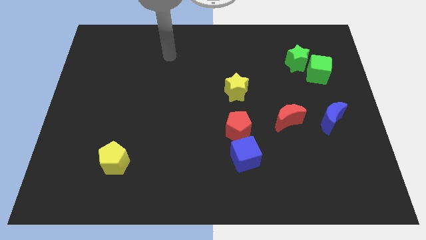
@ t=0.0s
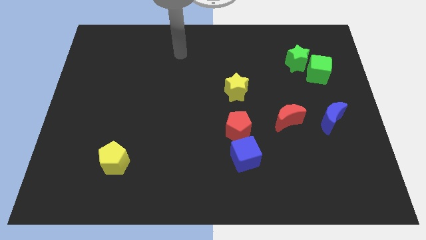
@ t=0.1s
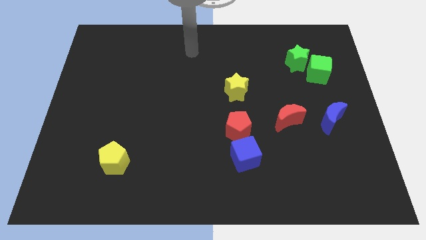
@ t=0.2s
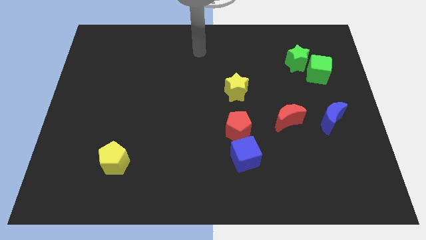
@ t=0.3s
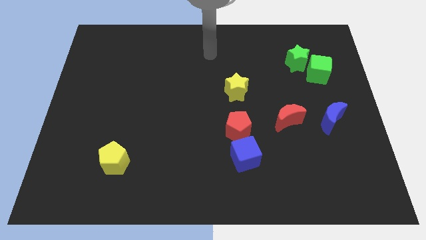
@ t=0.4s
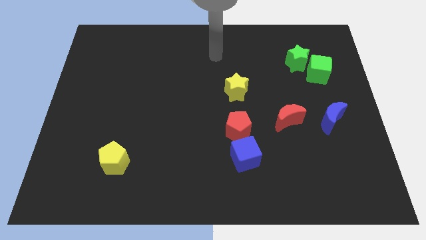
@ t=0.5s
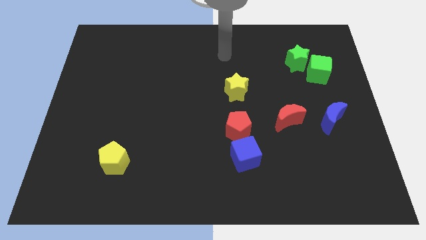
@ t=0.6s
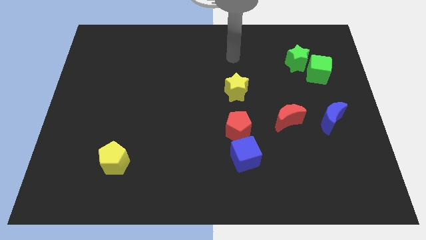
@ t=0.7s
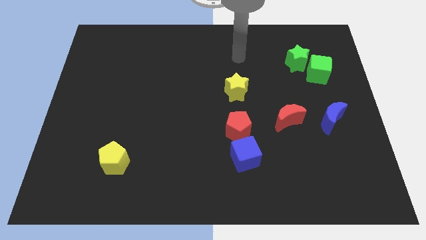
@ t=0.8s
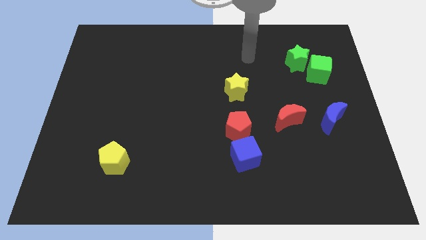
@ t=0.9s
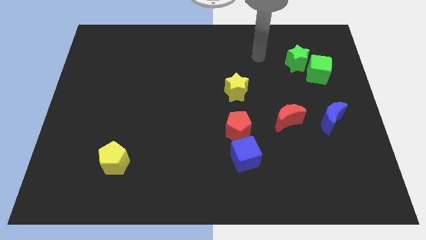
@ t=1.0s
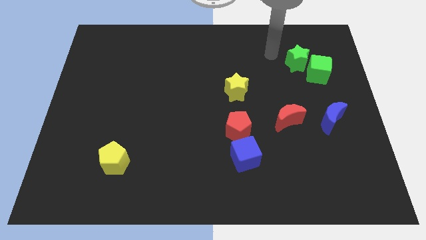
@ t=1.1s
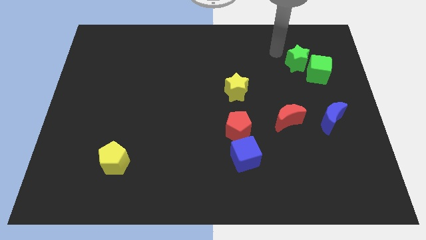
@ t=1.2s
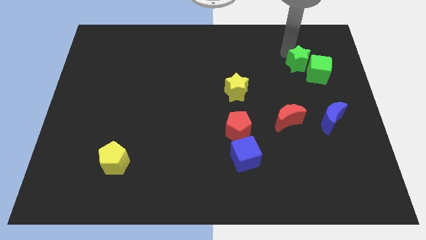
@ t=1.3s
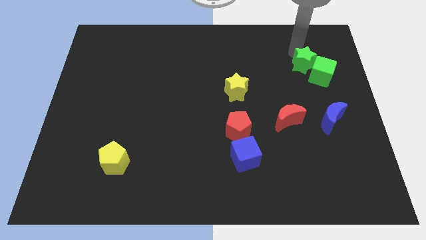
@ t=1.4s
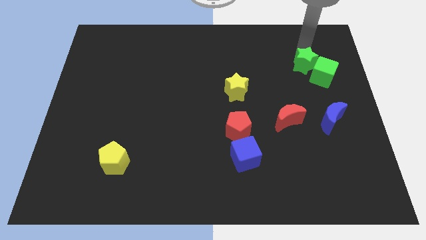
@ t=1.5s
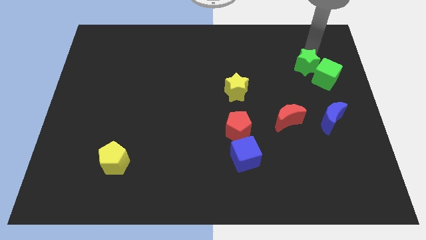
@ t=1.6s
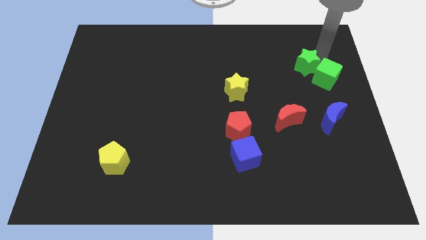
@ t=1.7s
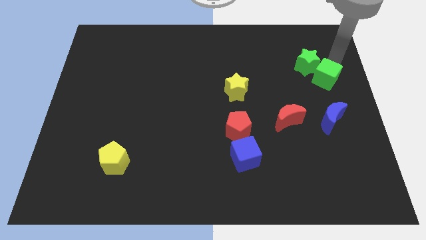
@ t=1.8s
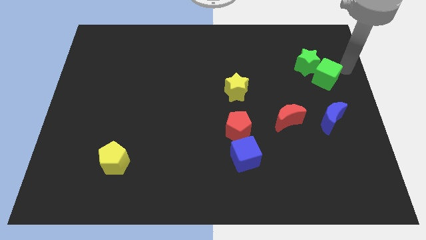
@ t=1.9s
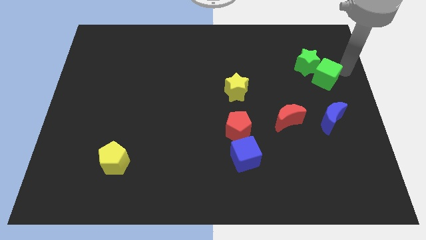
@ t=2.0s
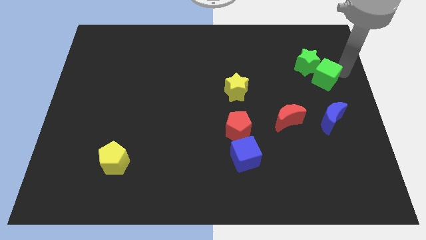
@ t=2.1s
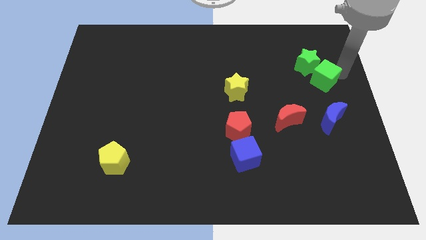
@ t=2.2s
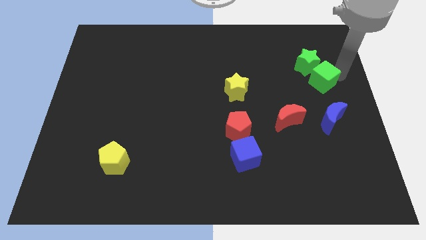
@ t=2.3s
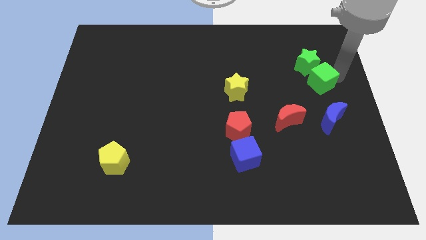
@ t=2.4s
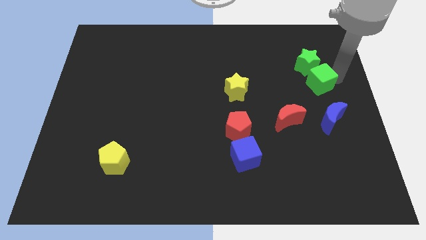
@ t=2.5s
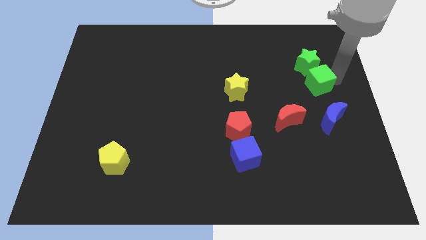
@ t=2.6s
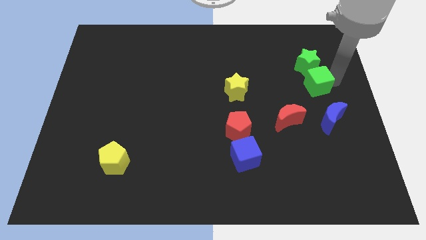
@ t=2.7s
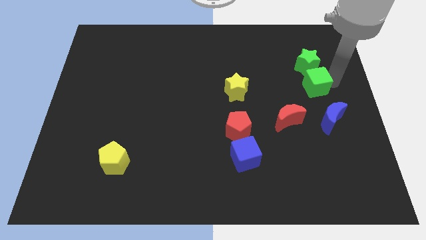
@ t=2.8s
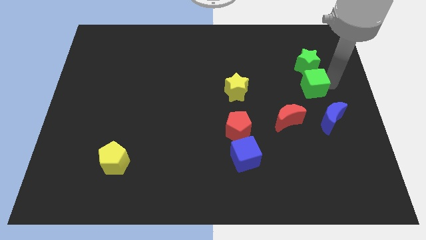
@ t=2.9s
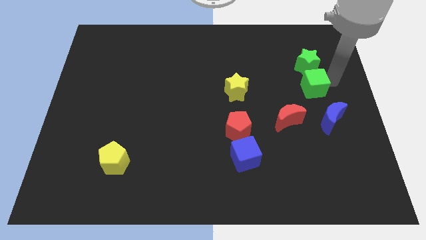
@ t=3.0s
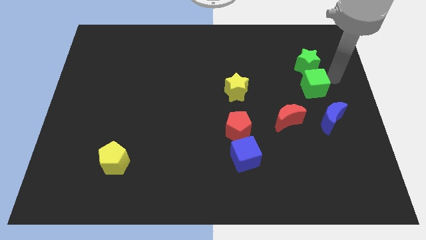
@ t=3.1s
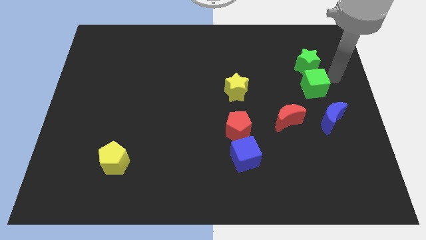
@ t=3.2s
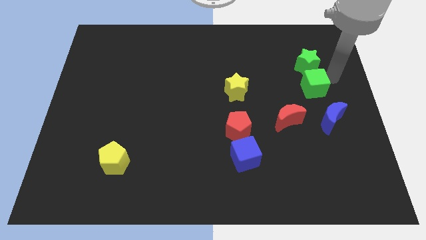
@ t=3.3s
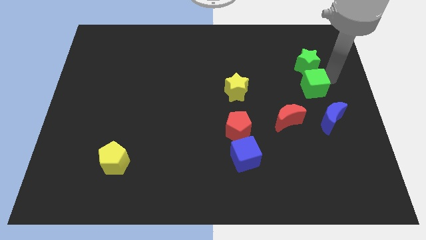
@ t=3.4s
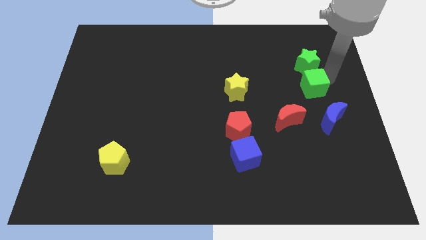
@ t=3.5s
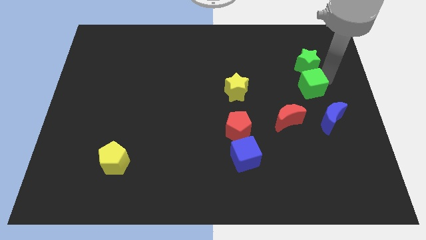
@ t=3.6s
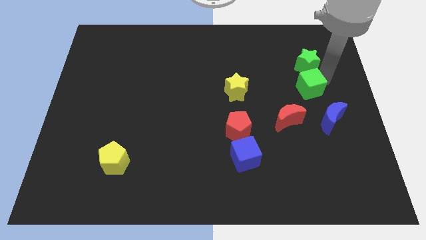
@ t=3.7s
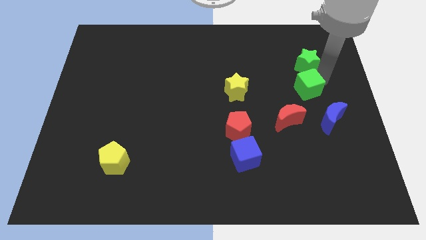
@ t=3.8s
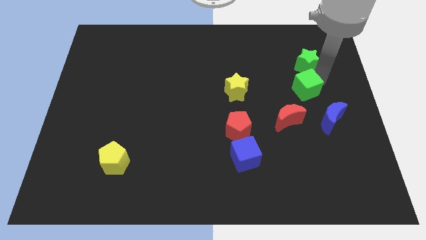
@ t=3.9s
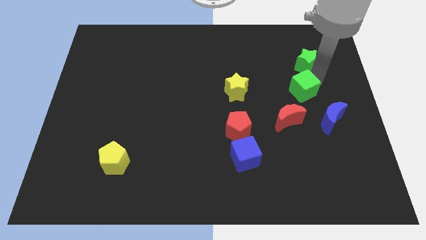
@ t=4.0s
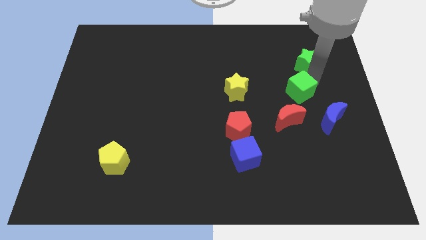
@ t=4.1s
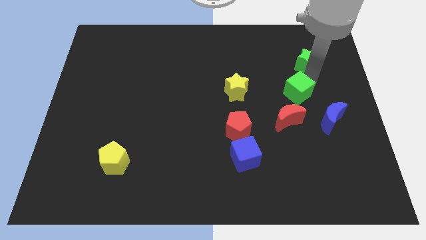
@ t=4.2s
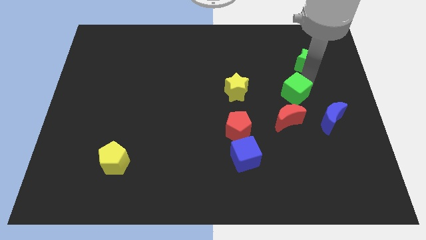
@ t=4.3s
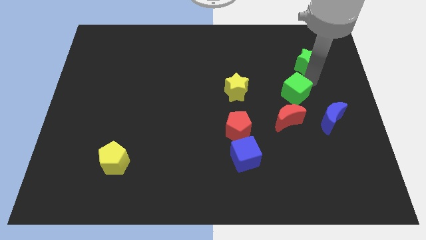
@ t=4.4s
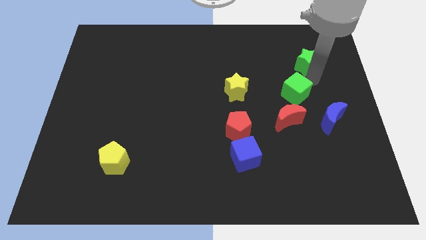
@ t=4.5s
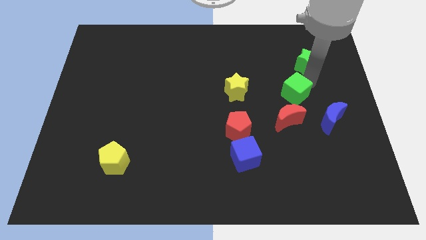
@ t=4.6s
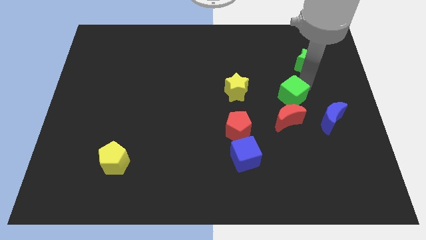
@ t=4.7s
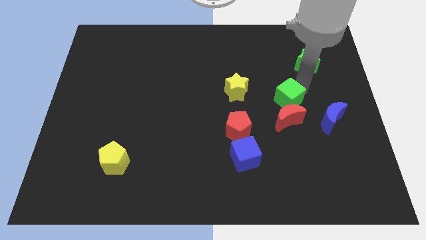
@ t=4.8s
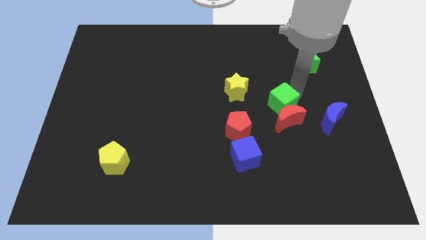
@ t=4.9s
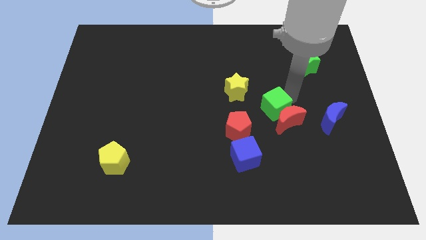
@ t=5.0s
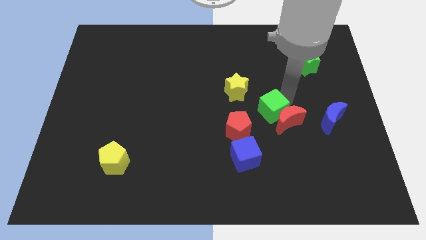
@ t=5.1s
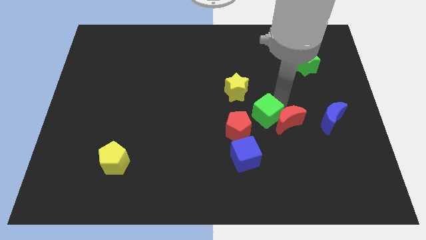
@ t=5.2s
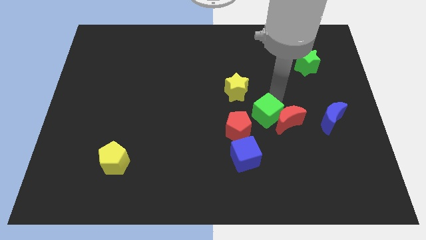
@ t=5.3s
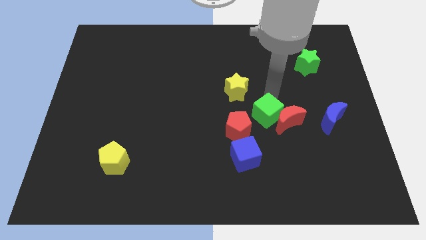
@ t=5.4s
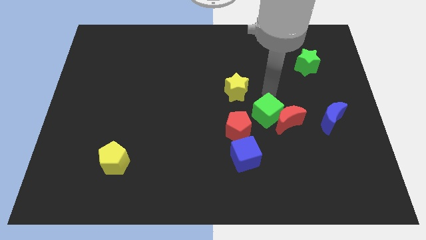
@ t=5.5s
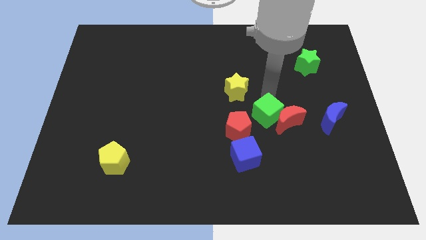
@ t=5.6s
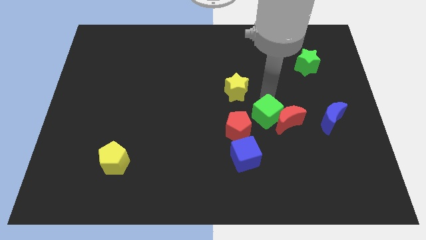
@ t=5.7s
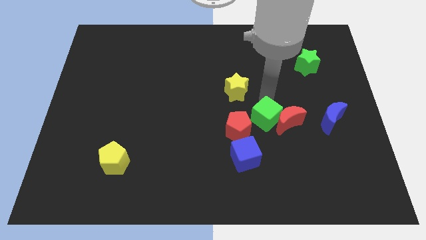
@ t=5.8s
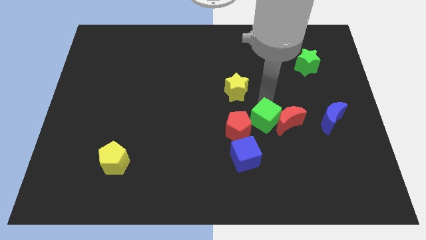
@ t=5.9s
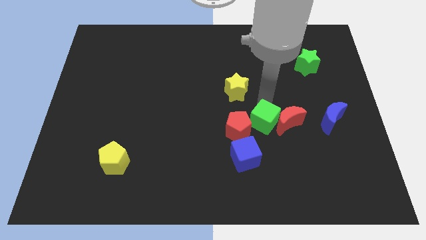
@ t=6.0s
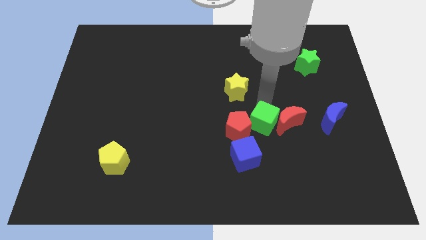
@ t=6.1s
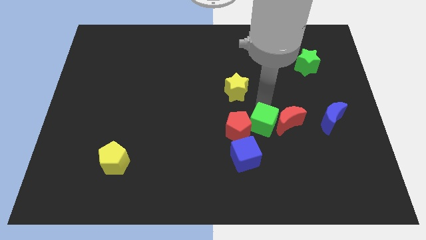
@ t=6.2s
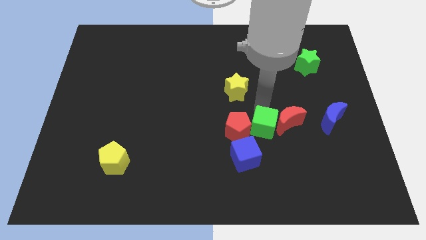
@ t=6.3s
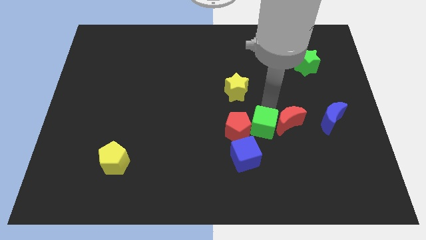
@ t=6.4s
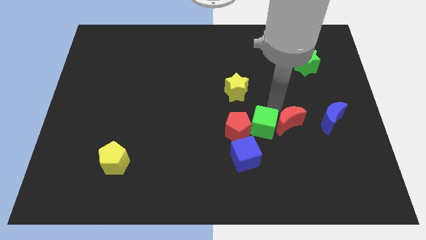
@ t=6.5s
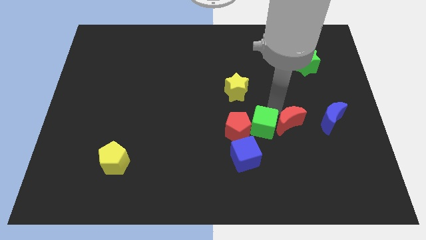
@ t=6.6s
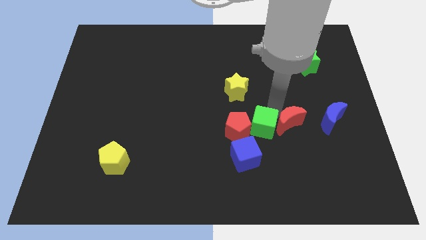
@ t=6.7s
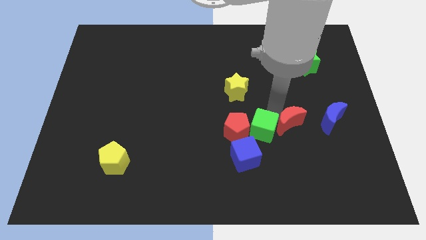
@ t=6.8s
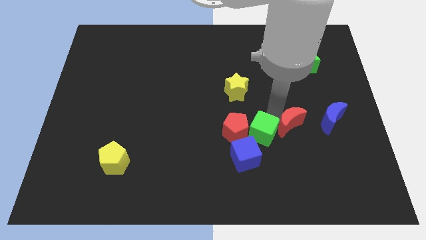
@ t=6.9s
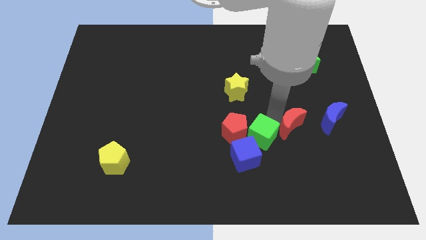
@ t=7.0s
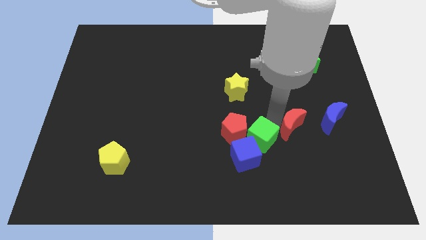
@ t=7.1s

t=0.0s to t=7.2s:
push the green cube close to the blue cube

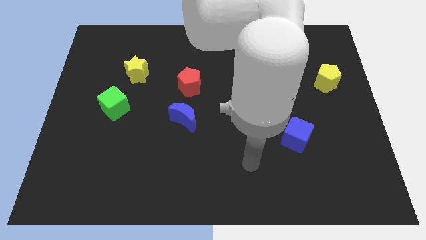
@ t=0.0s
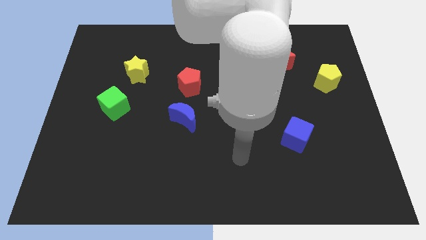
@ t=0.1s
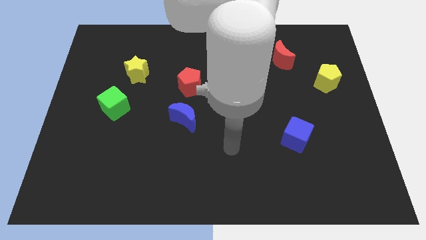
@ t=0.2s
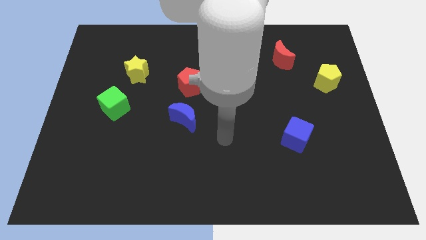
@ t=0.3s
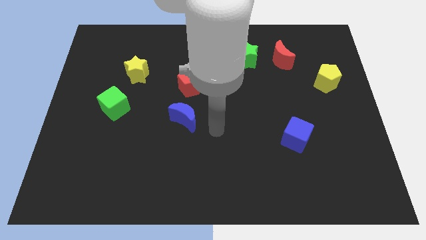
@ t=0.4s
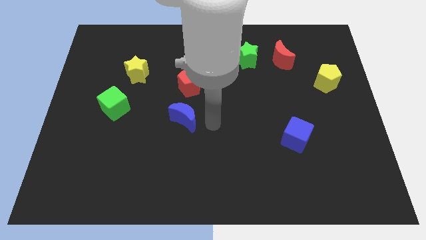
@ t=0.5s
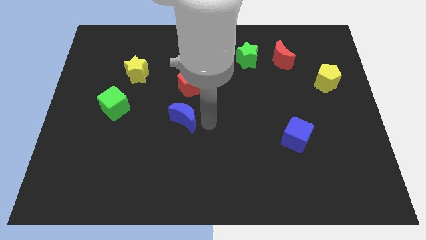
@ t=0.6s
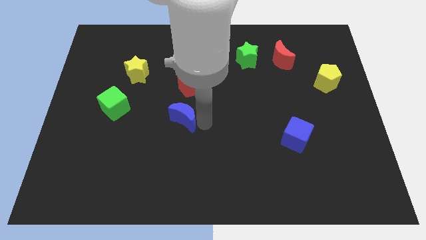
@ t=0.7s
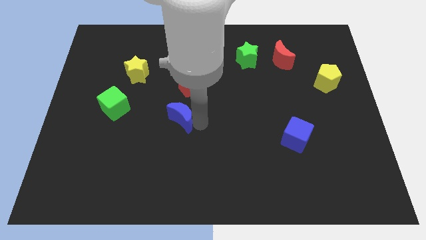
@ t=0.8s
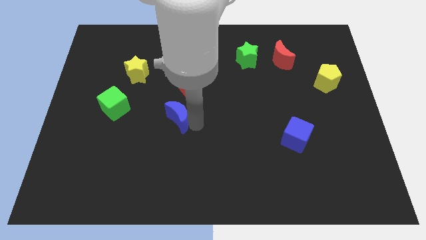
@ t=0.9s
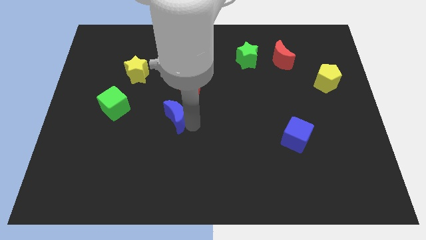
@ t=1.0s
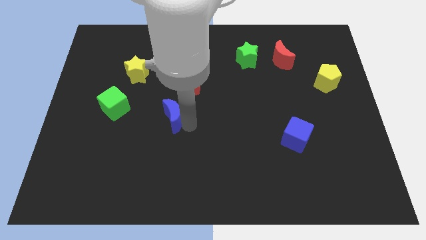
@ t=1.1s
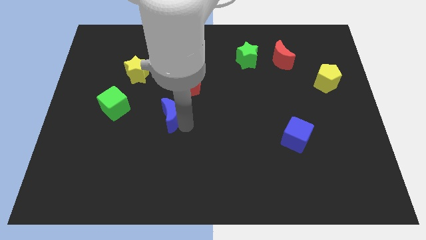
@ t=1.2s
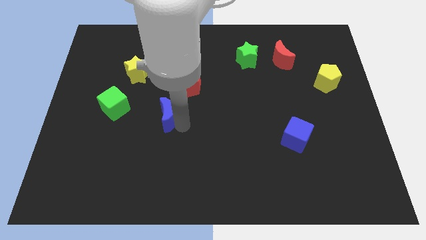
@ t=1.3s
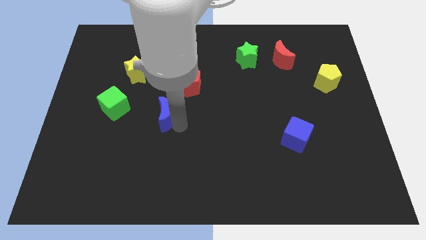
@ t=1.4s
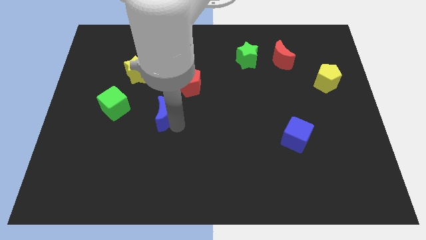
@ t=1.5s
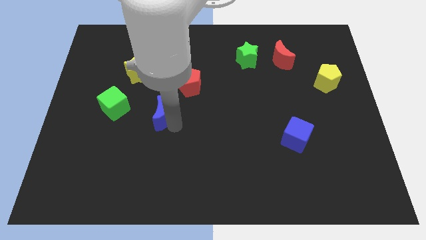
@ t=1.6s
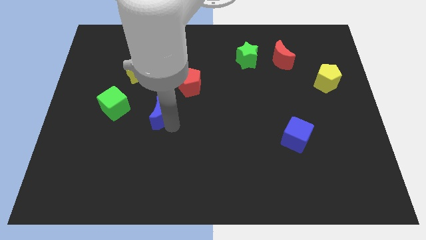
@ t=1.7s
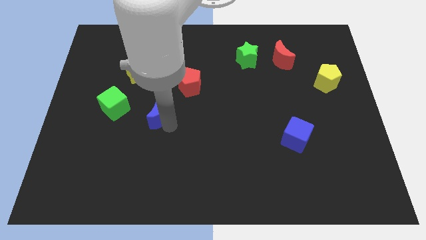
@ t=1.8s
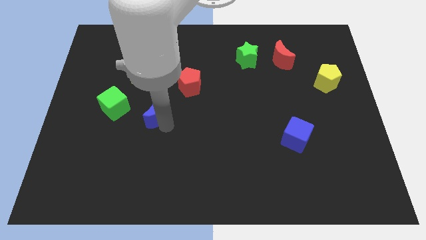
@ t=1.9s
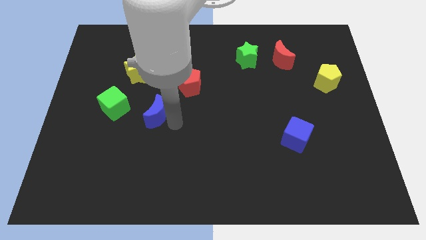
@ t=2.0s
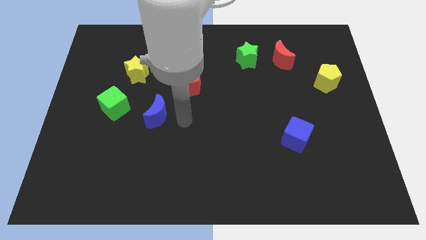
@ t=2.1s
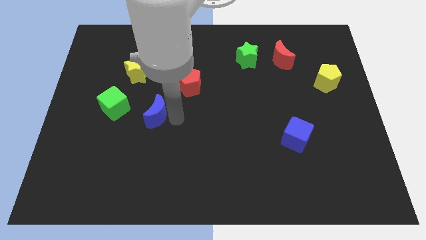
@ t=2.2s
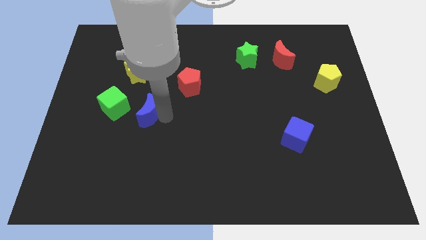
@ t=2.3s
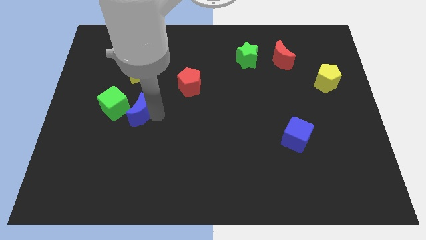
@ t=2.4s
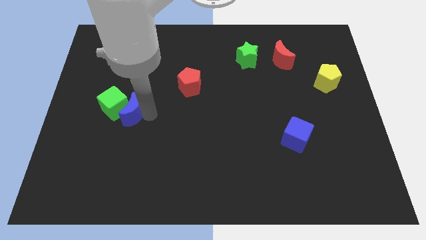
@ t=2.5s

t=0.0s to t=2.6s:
put the blue moon towards the green cube
